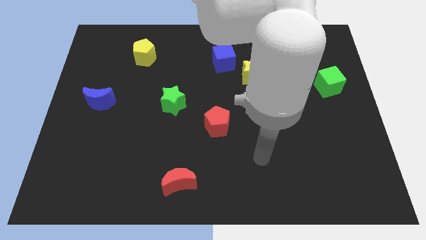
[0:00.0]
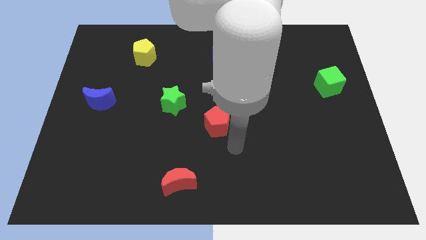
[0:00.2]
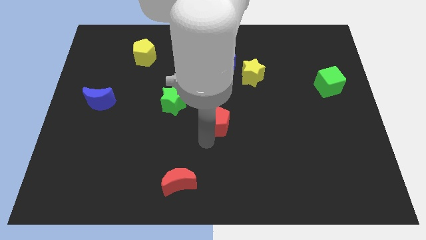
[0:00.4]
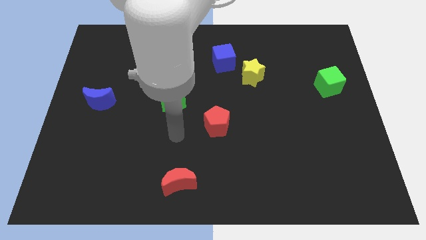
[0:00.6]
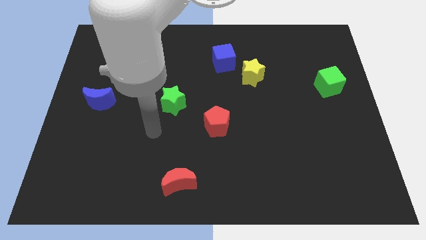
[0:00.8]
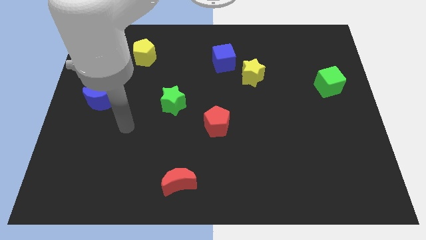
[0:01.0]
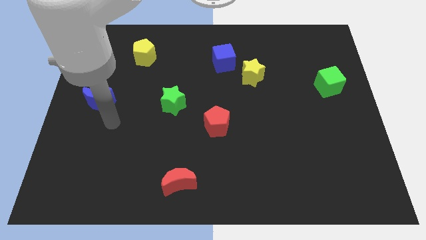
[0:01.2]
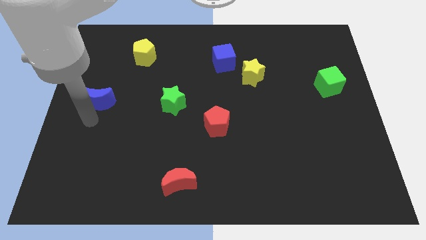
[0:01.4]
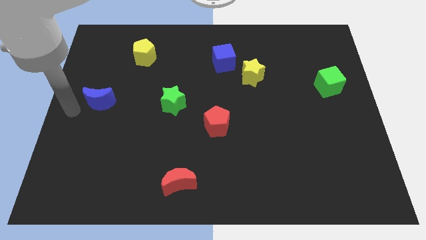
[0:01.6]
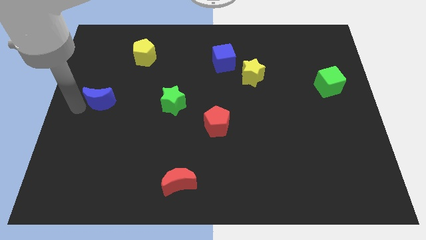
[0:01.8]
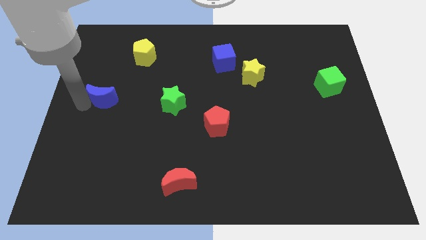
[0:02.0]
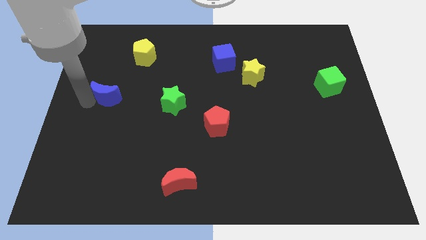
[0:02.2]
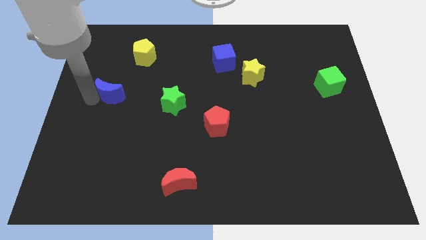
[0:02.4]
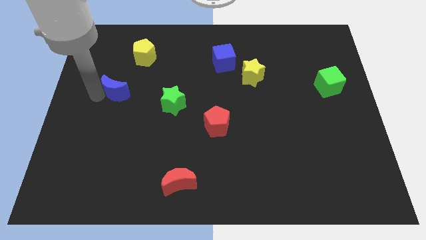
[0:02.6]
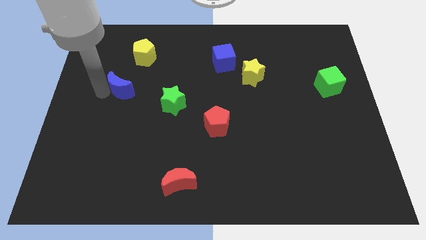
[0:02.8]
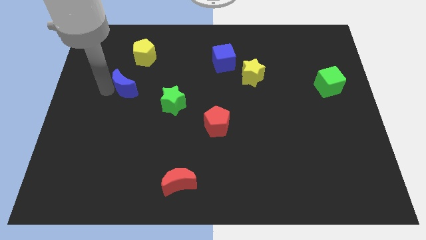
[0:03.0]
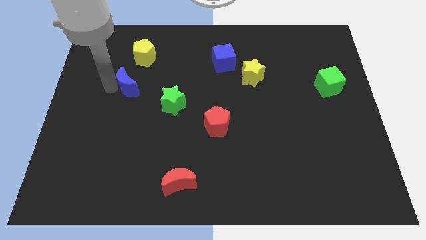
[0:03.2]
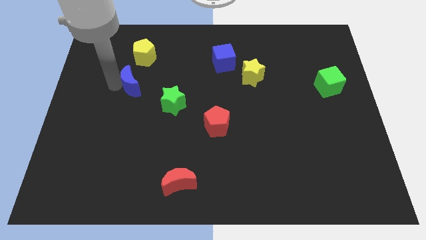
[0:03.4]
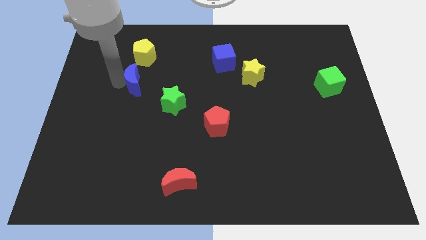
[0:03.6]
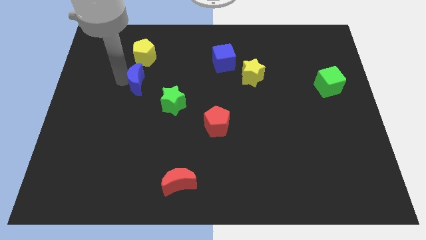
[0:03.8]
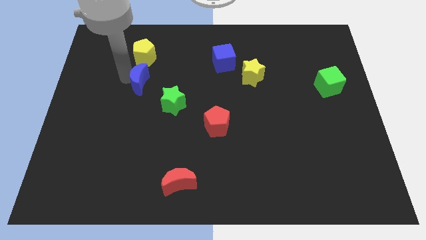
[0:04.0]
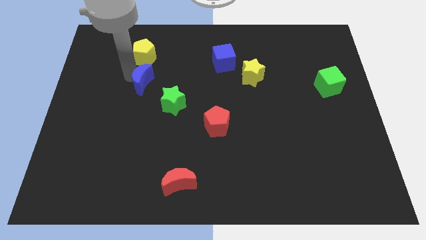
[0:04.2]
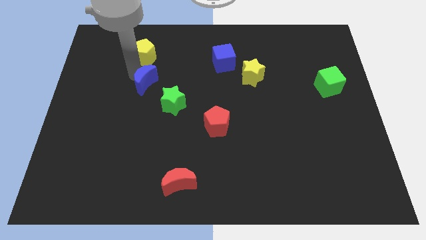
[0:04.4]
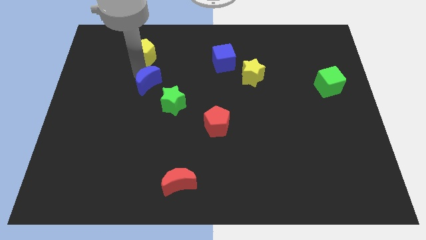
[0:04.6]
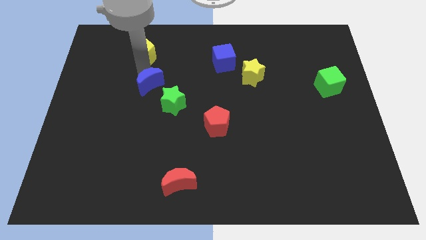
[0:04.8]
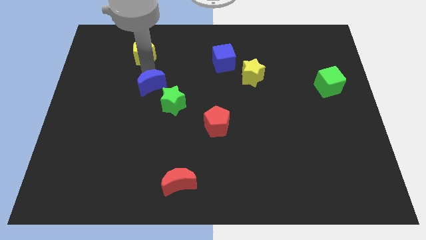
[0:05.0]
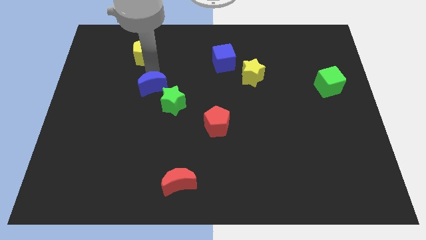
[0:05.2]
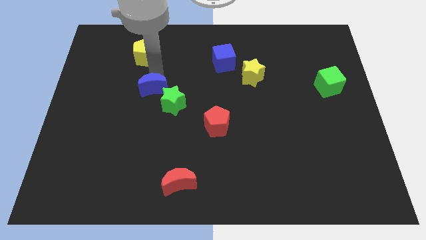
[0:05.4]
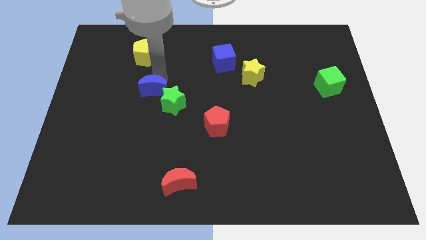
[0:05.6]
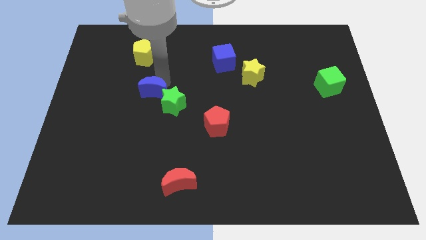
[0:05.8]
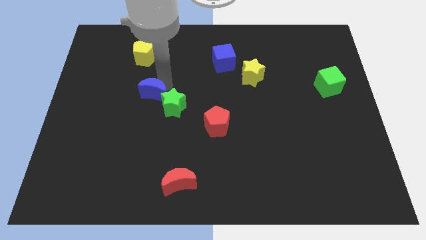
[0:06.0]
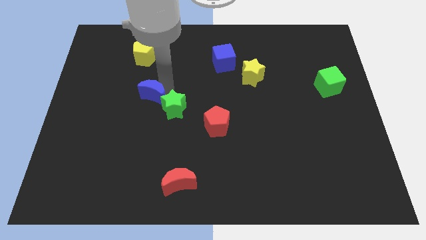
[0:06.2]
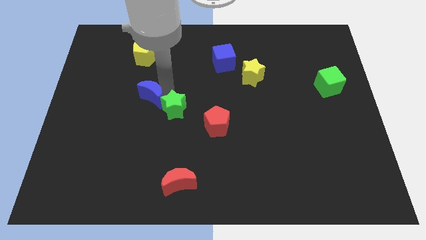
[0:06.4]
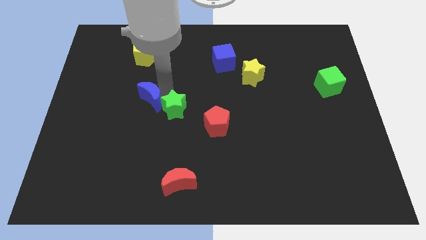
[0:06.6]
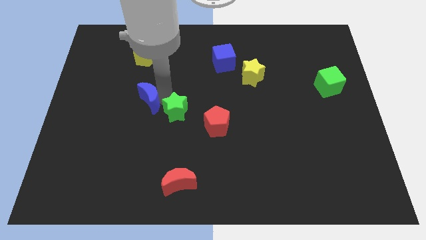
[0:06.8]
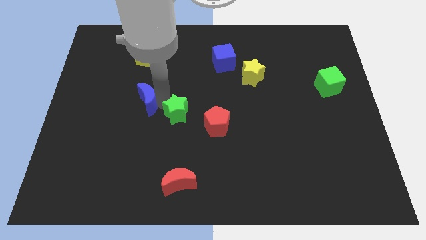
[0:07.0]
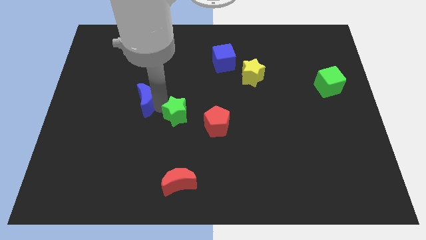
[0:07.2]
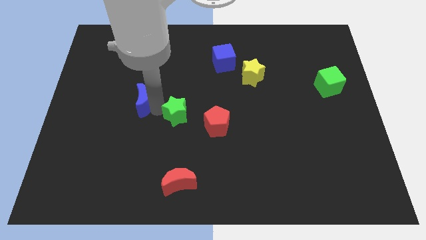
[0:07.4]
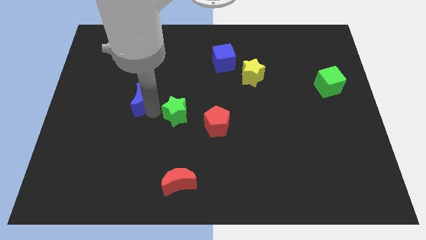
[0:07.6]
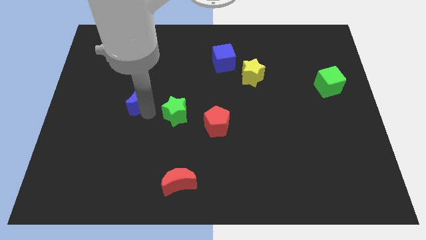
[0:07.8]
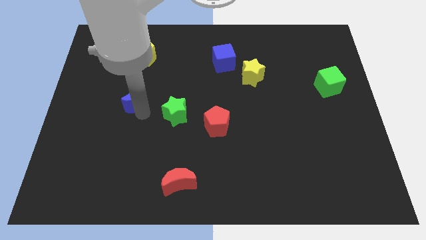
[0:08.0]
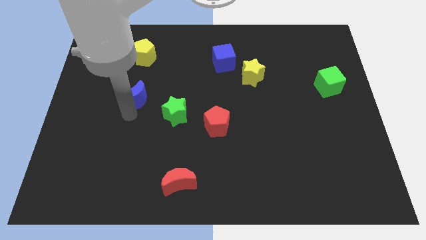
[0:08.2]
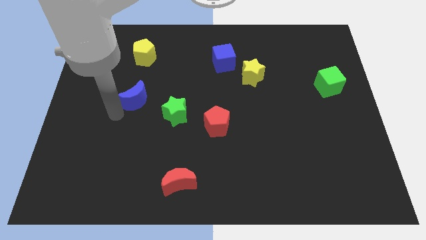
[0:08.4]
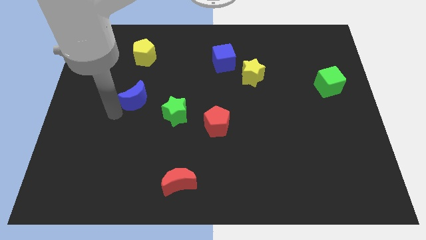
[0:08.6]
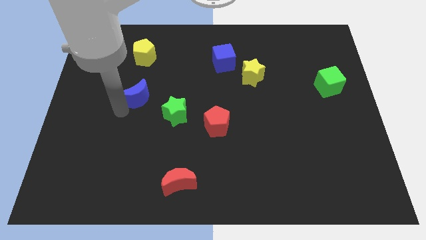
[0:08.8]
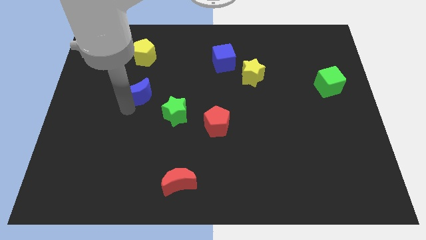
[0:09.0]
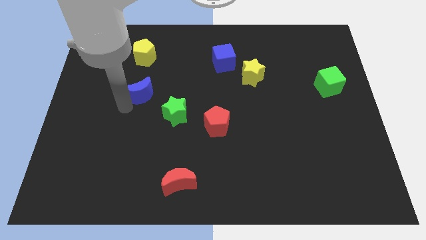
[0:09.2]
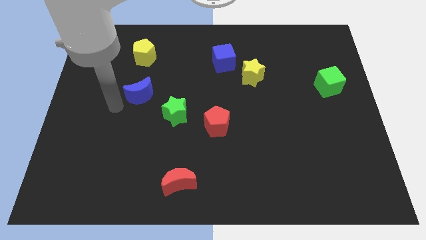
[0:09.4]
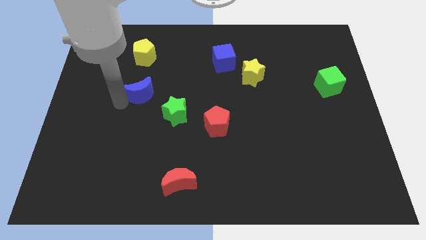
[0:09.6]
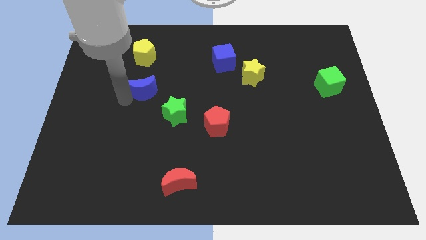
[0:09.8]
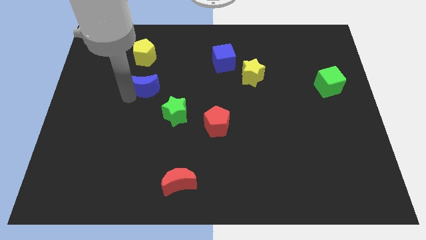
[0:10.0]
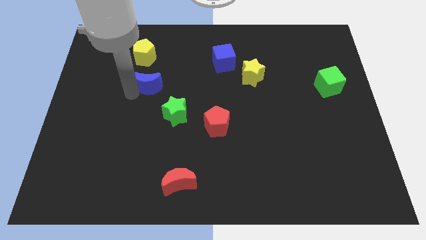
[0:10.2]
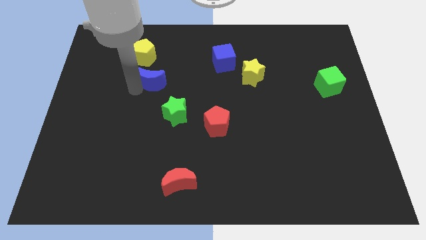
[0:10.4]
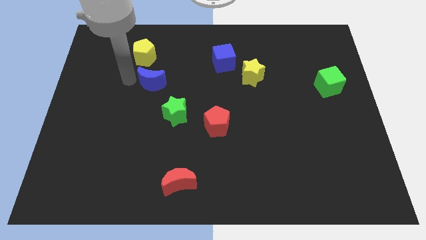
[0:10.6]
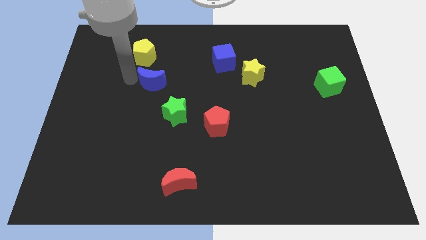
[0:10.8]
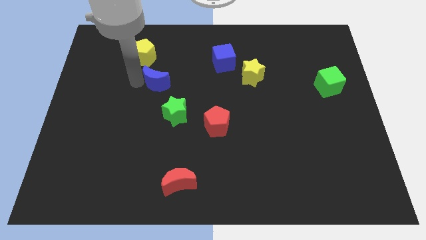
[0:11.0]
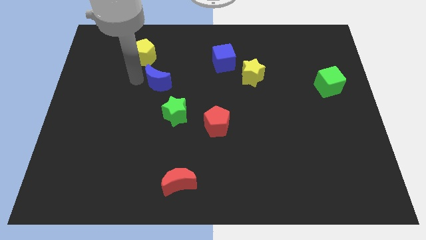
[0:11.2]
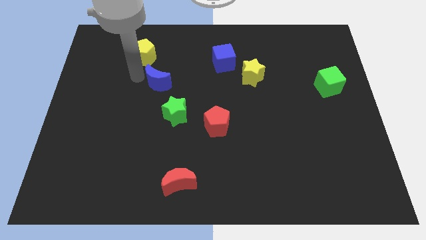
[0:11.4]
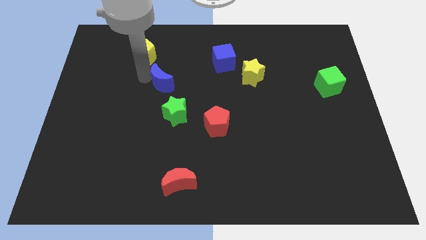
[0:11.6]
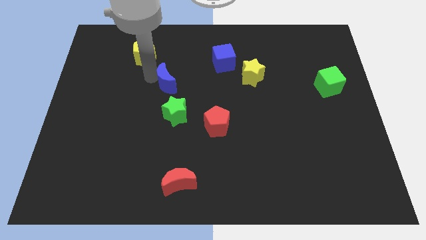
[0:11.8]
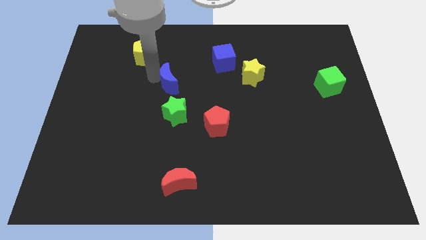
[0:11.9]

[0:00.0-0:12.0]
slide the blue moon to the middle
